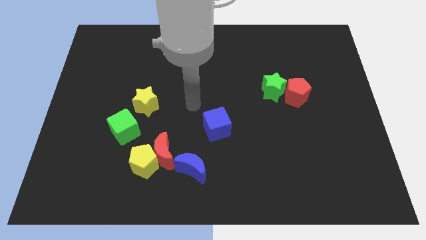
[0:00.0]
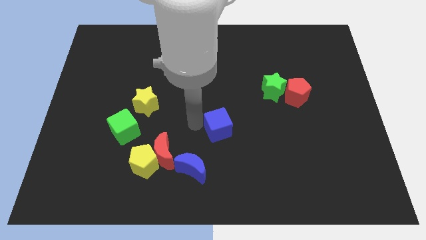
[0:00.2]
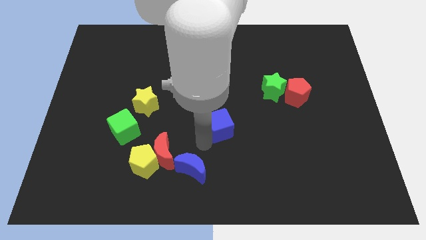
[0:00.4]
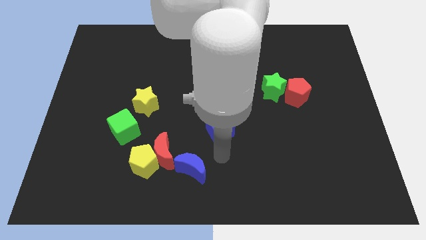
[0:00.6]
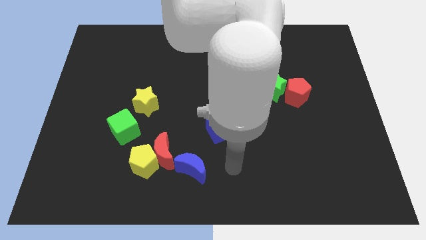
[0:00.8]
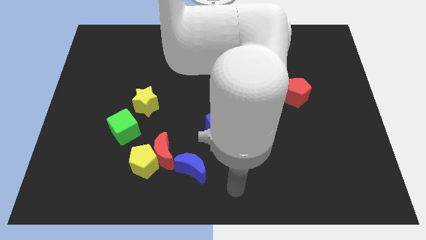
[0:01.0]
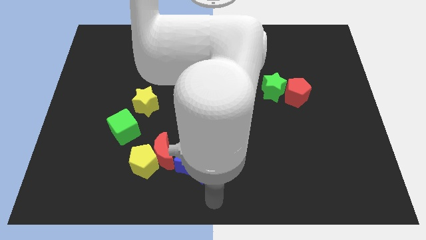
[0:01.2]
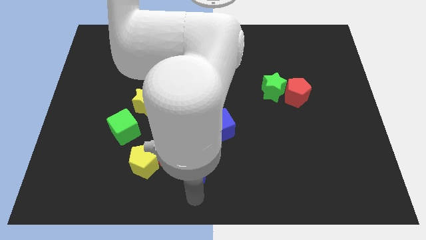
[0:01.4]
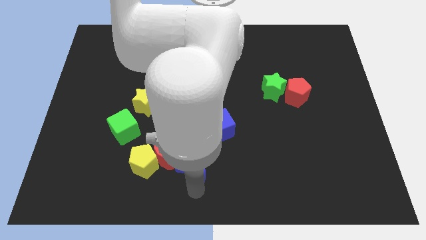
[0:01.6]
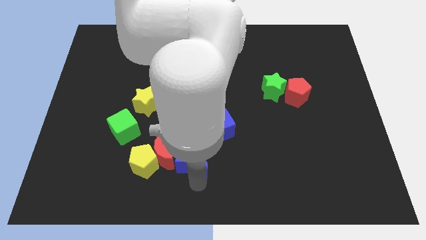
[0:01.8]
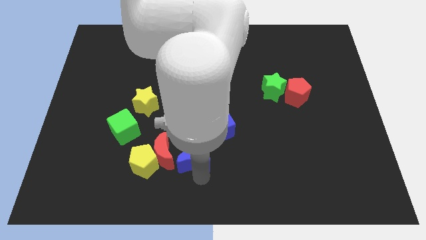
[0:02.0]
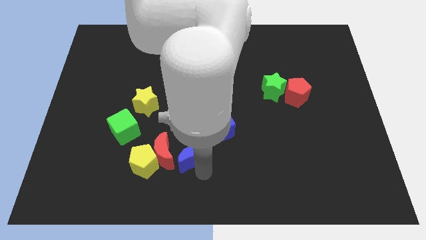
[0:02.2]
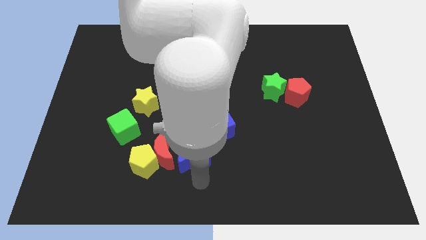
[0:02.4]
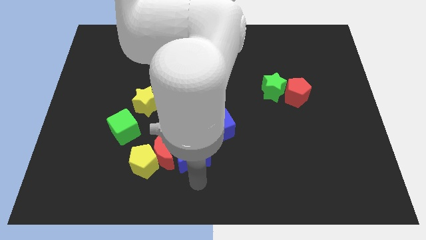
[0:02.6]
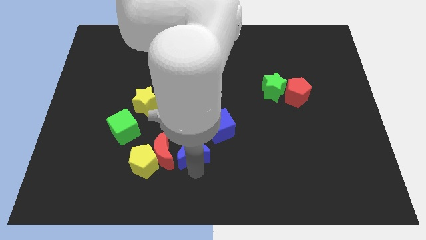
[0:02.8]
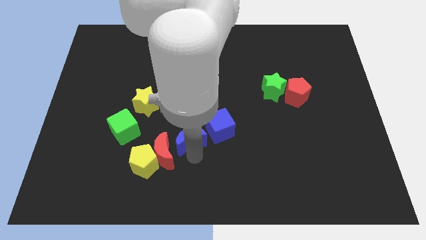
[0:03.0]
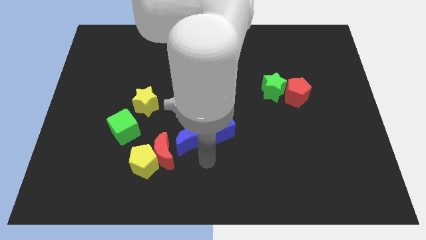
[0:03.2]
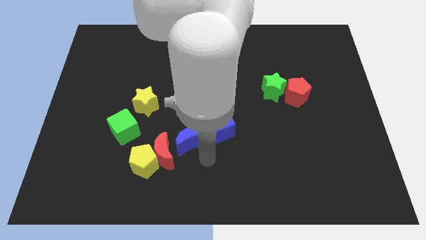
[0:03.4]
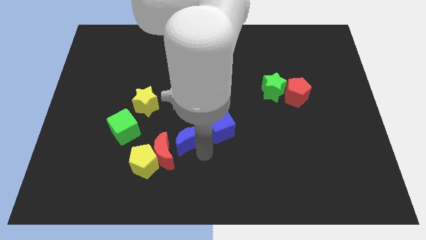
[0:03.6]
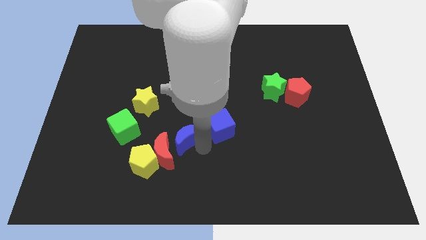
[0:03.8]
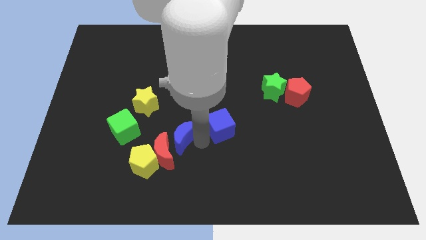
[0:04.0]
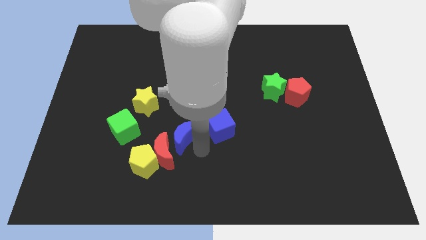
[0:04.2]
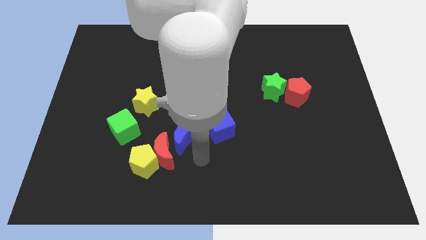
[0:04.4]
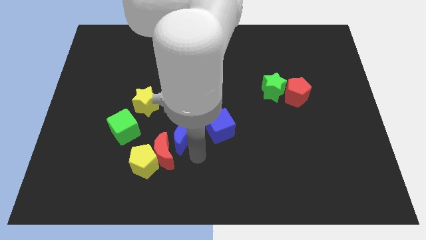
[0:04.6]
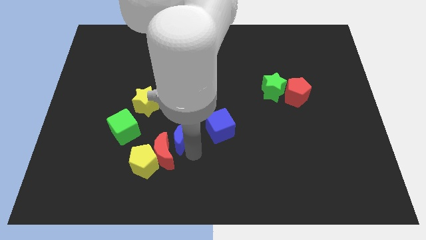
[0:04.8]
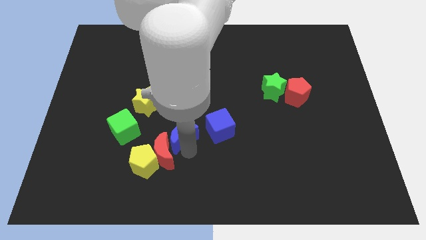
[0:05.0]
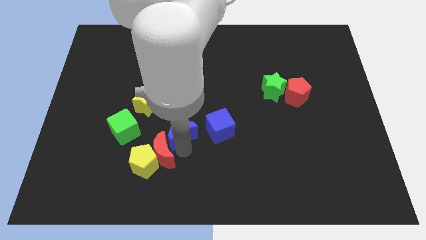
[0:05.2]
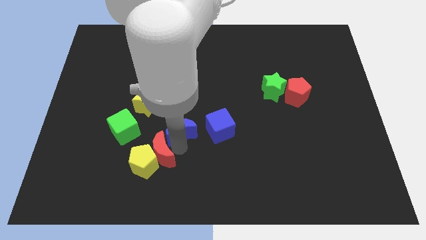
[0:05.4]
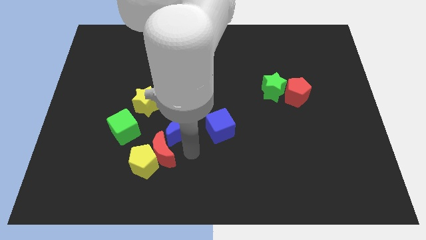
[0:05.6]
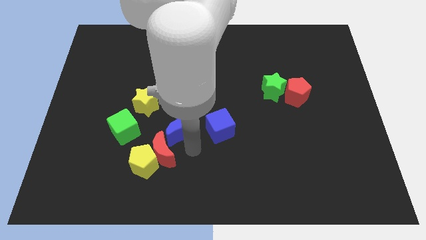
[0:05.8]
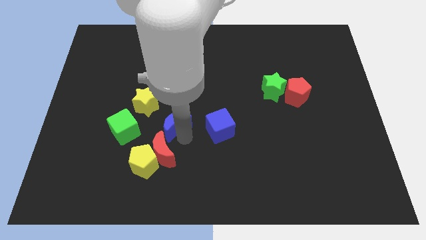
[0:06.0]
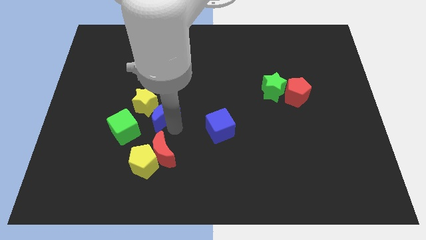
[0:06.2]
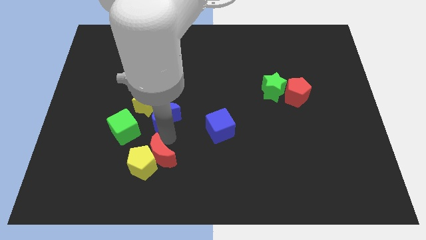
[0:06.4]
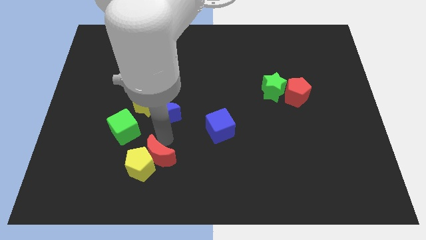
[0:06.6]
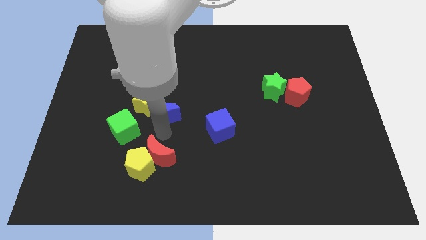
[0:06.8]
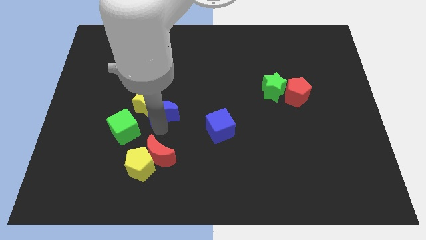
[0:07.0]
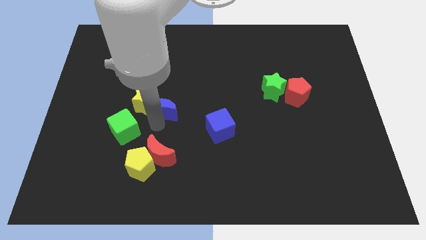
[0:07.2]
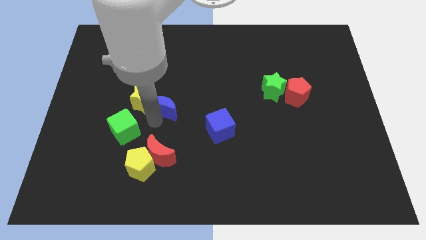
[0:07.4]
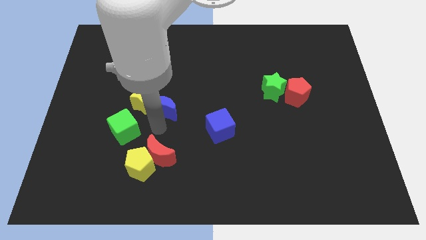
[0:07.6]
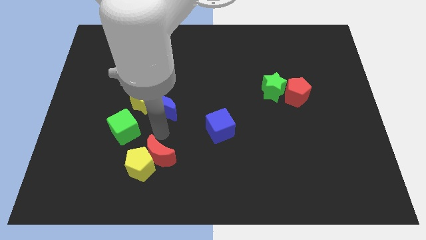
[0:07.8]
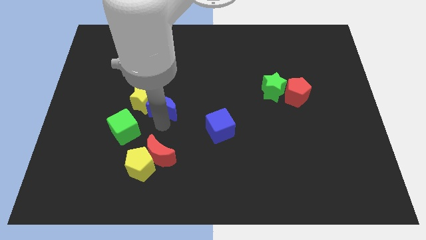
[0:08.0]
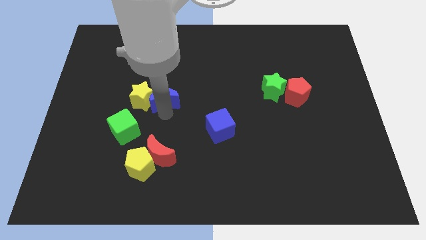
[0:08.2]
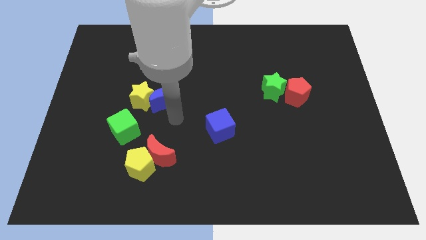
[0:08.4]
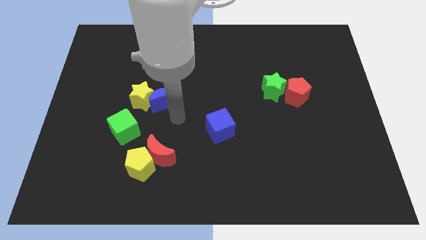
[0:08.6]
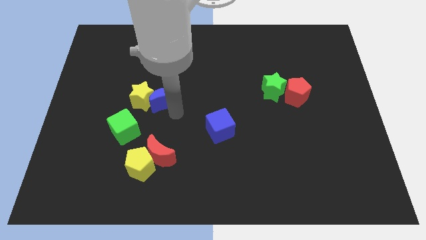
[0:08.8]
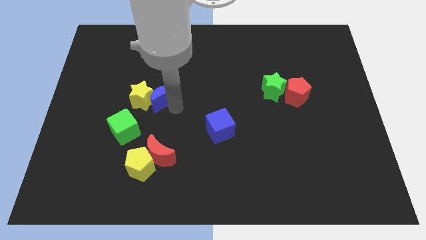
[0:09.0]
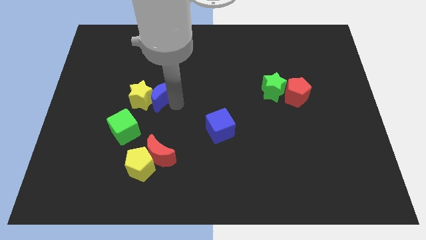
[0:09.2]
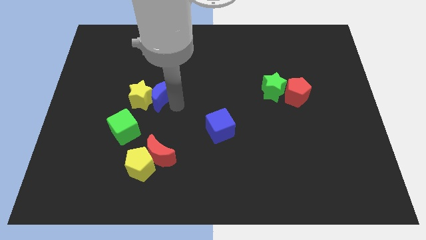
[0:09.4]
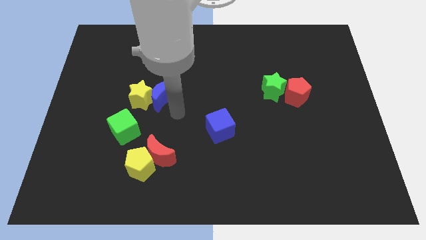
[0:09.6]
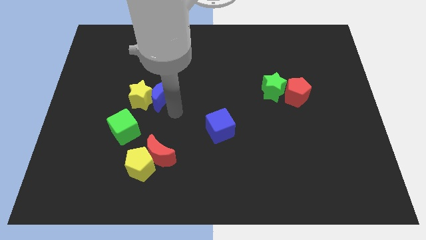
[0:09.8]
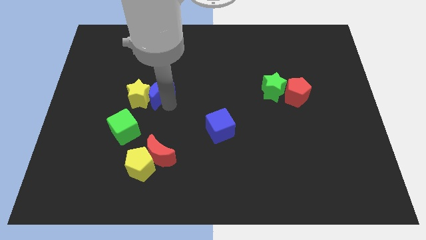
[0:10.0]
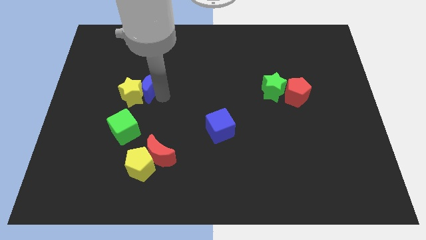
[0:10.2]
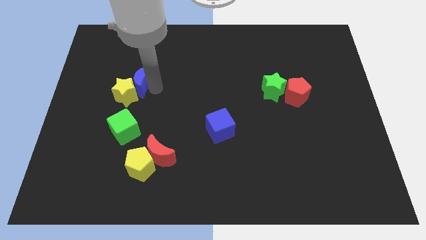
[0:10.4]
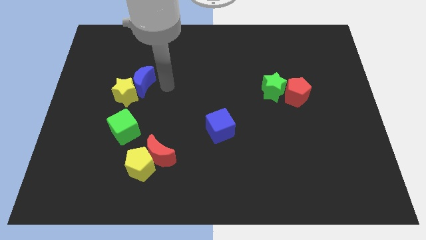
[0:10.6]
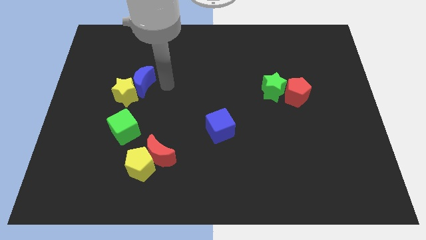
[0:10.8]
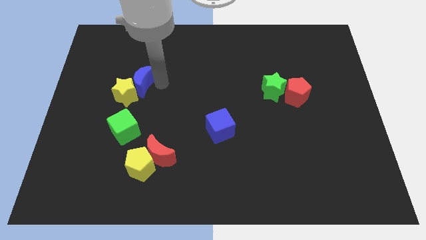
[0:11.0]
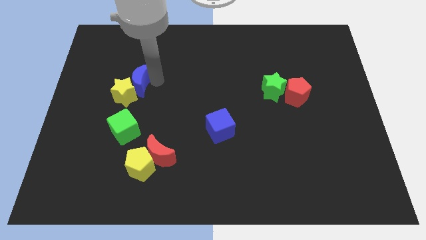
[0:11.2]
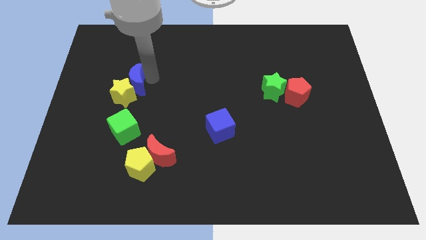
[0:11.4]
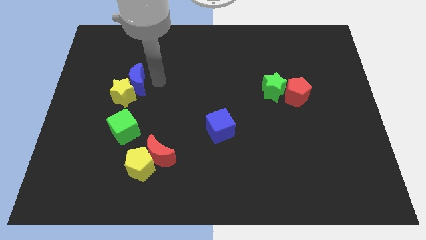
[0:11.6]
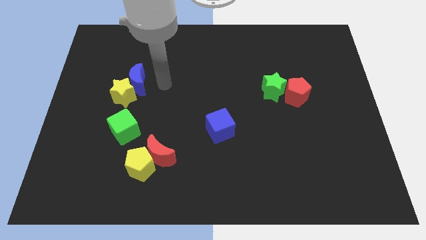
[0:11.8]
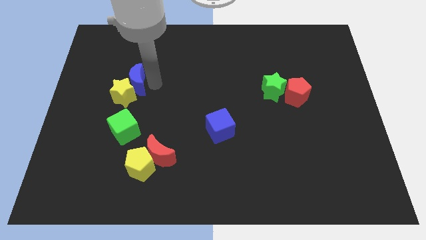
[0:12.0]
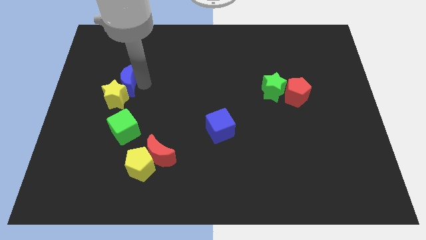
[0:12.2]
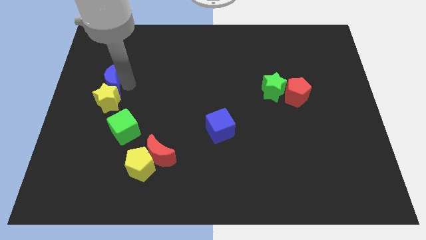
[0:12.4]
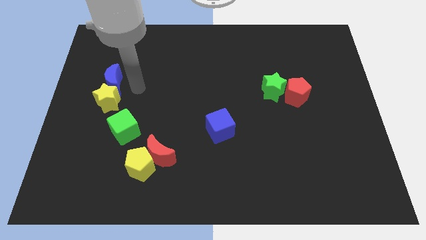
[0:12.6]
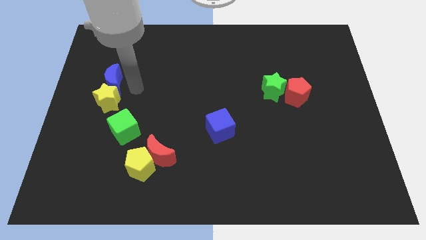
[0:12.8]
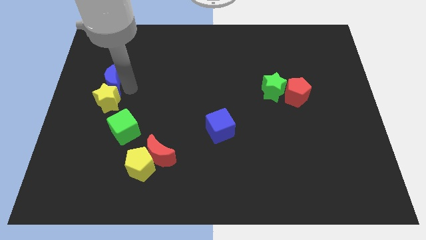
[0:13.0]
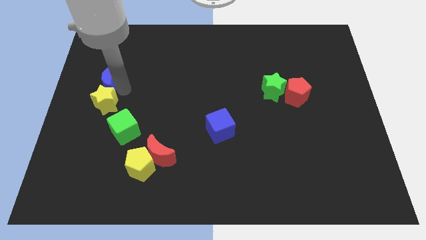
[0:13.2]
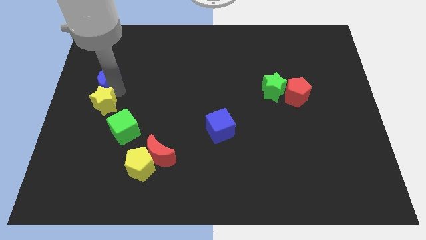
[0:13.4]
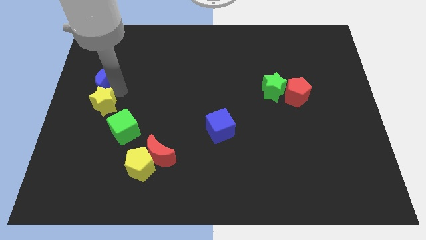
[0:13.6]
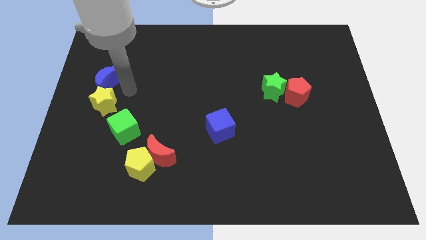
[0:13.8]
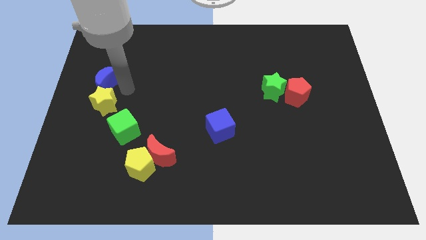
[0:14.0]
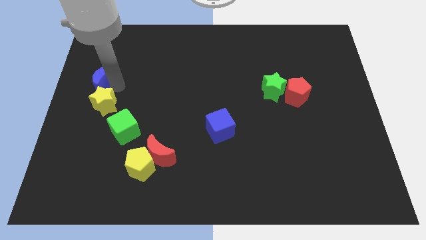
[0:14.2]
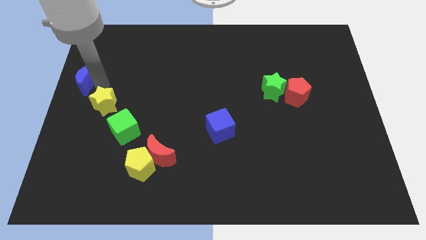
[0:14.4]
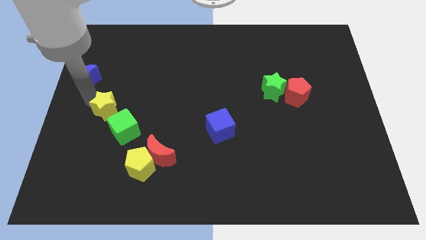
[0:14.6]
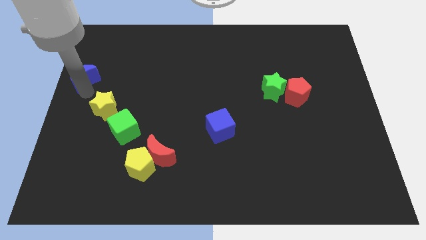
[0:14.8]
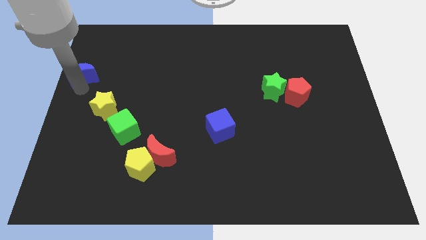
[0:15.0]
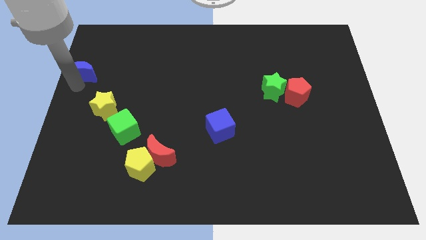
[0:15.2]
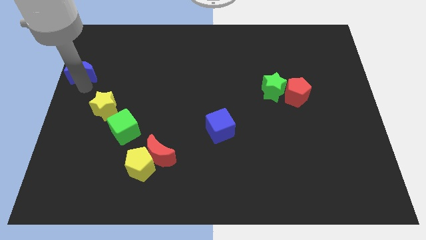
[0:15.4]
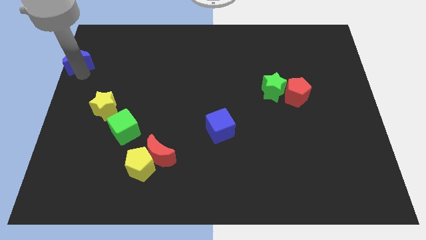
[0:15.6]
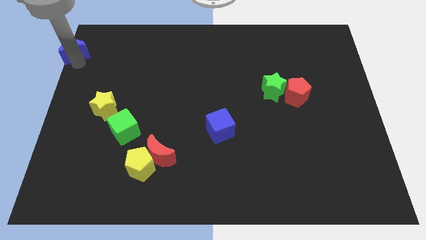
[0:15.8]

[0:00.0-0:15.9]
slide the blue moon to the upper left corner
